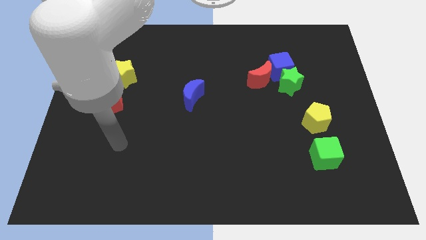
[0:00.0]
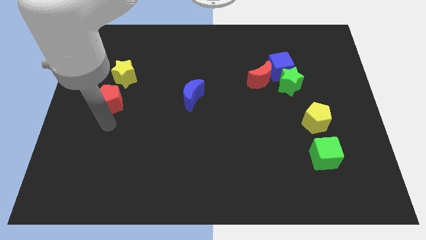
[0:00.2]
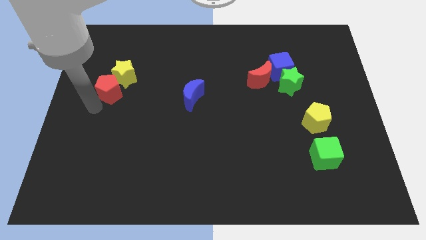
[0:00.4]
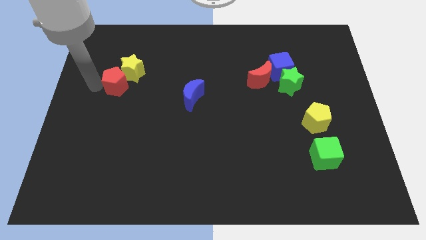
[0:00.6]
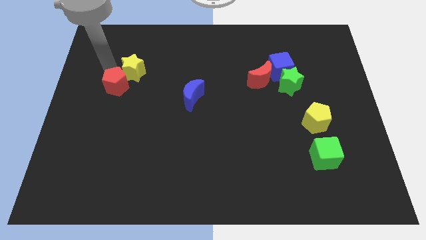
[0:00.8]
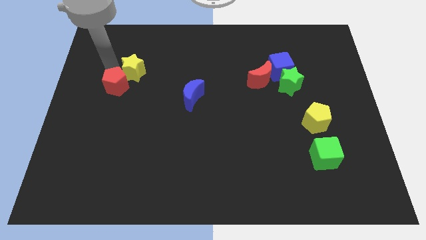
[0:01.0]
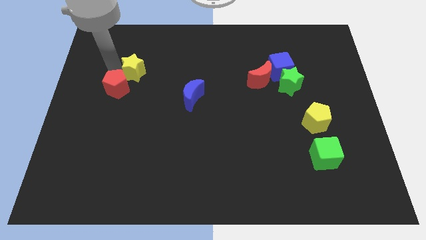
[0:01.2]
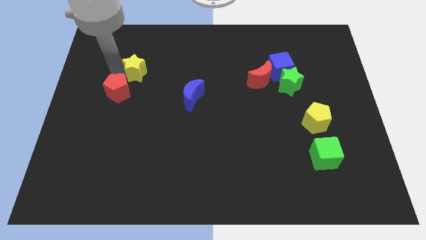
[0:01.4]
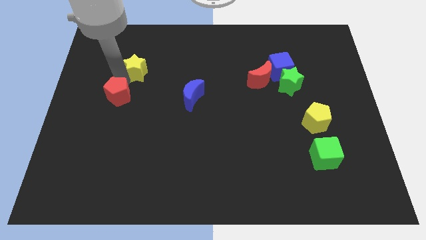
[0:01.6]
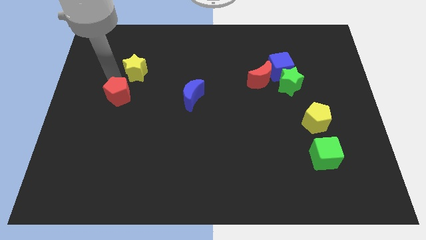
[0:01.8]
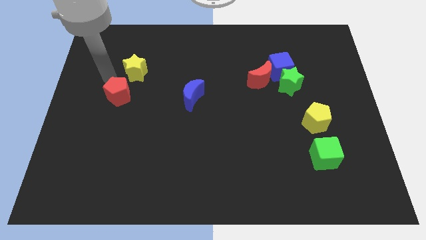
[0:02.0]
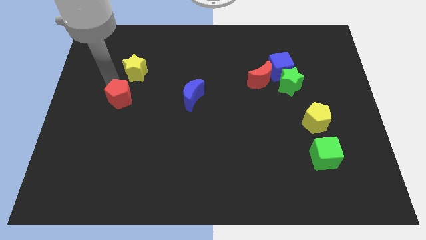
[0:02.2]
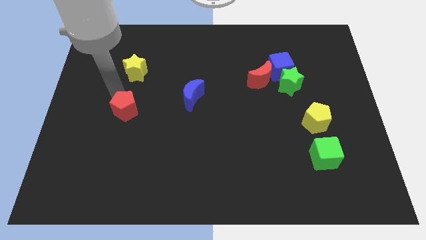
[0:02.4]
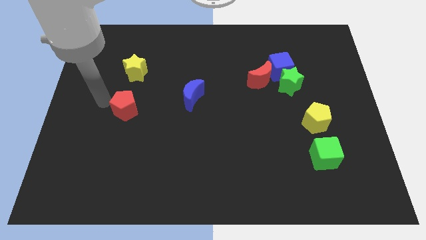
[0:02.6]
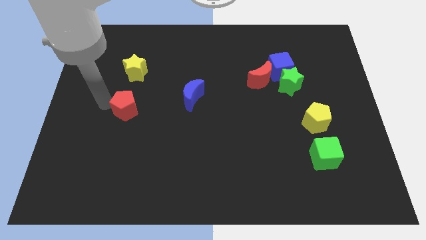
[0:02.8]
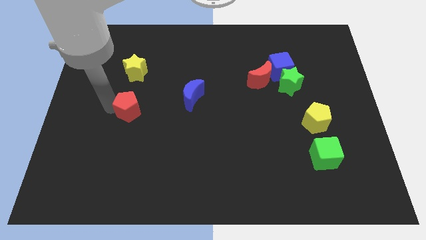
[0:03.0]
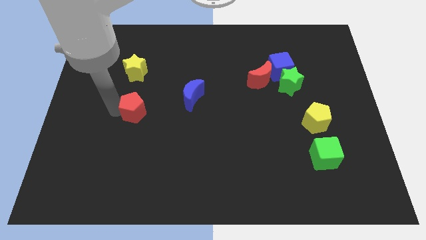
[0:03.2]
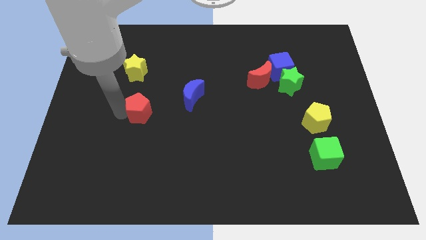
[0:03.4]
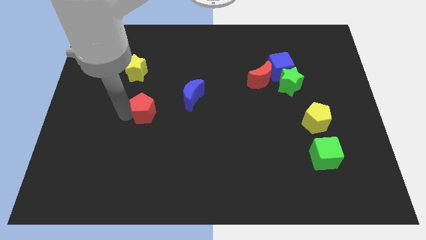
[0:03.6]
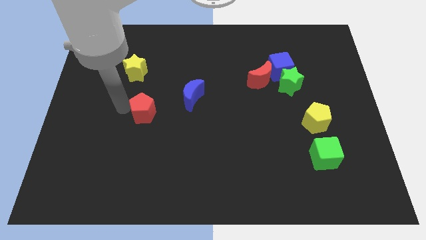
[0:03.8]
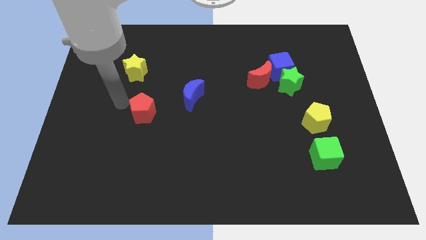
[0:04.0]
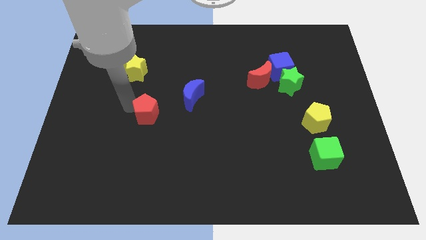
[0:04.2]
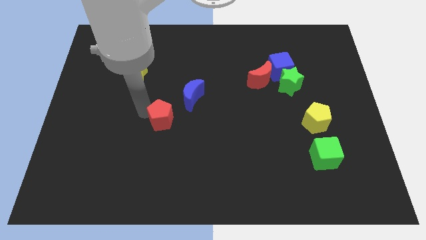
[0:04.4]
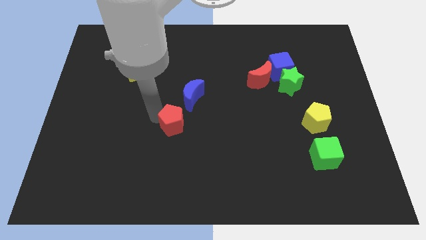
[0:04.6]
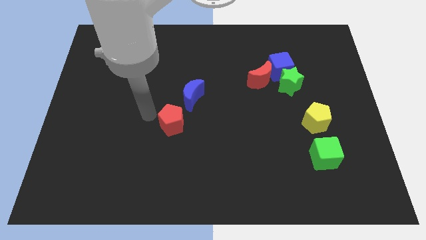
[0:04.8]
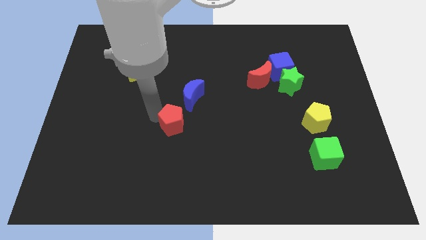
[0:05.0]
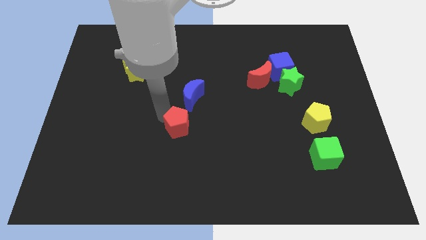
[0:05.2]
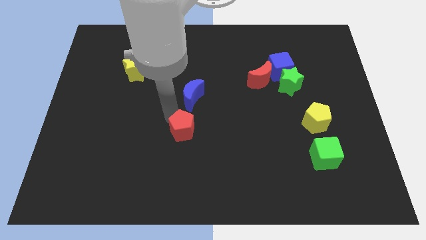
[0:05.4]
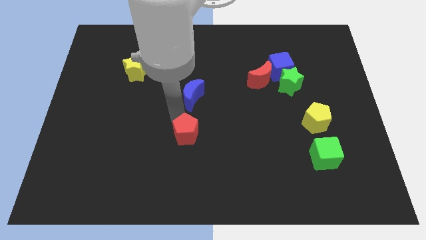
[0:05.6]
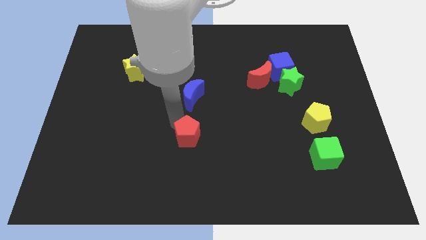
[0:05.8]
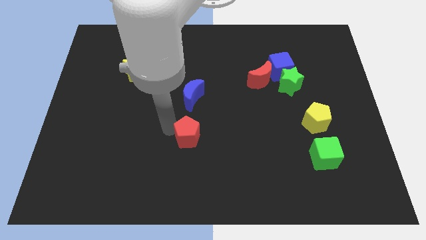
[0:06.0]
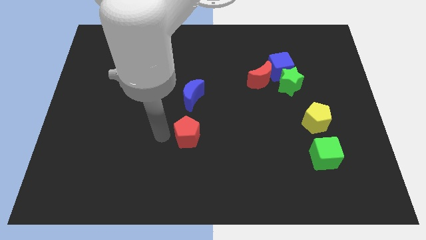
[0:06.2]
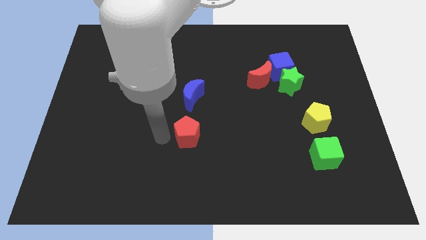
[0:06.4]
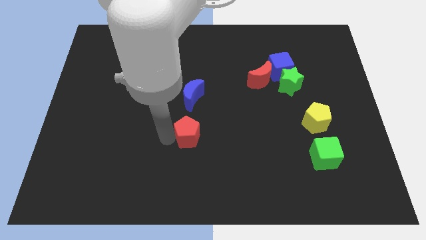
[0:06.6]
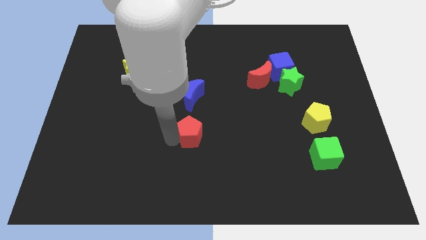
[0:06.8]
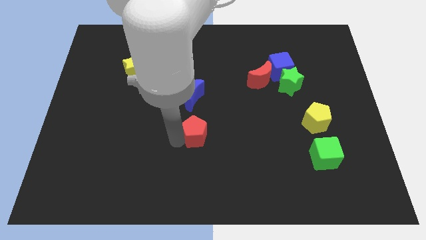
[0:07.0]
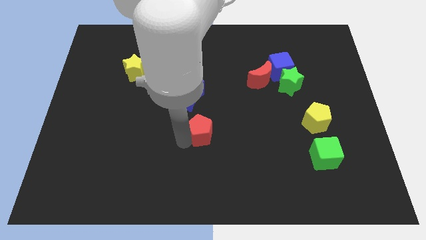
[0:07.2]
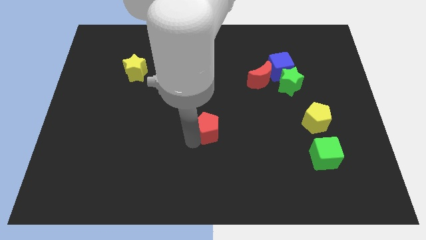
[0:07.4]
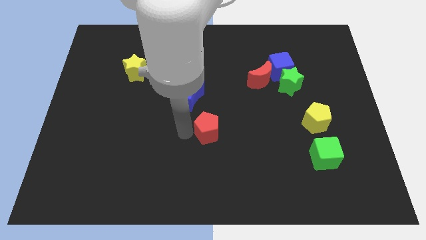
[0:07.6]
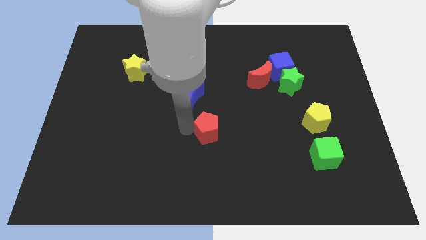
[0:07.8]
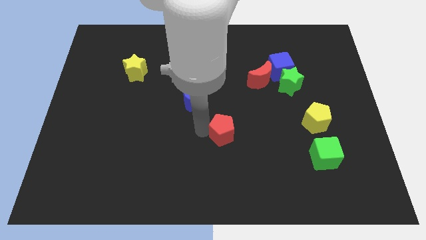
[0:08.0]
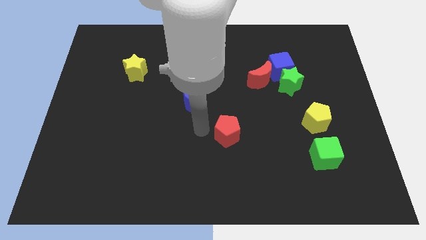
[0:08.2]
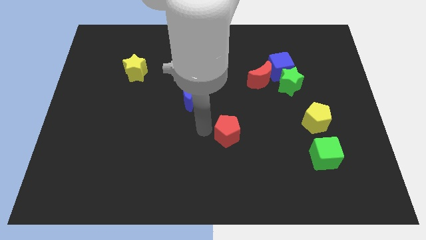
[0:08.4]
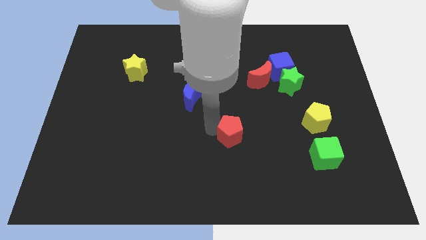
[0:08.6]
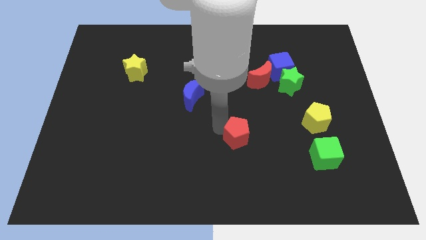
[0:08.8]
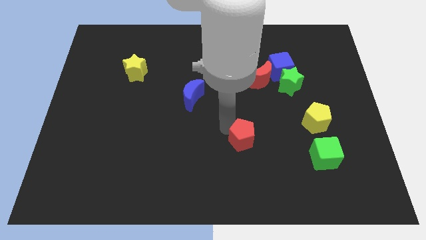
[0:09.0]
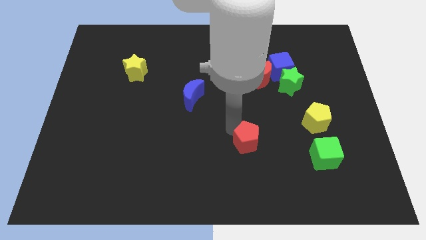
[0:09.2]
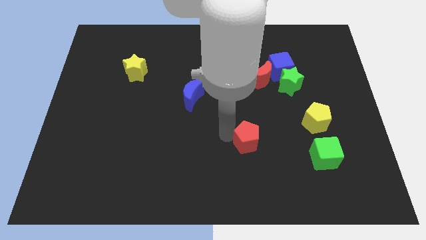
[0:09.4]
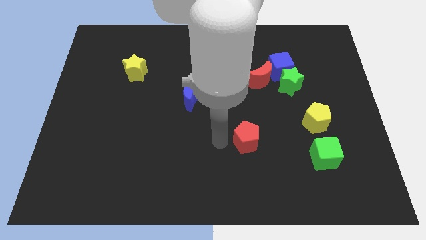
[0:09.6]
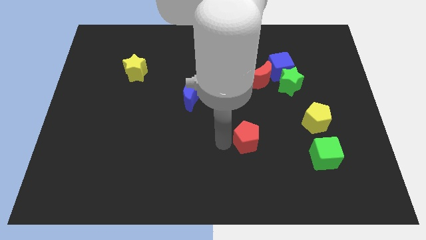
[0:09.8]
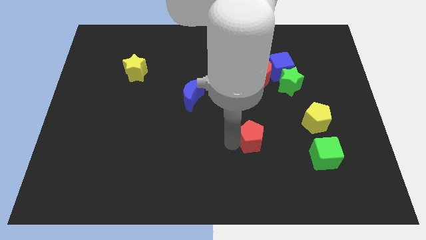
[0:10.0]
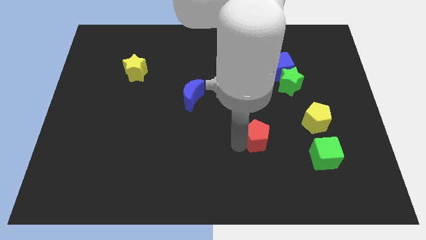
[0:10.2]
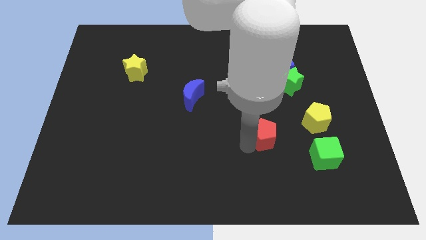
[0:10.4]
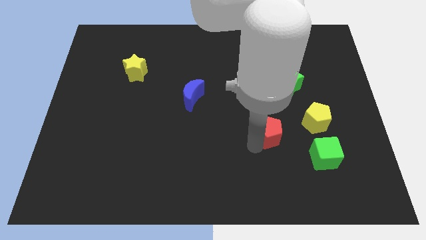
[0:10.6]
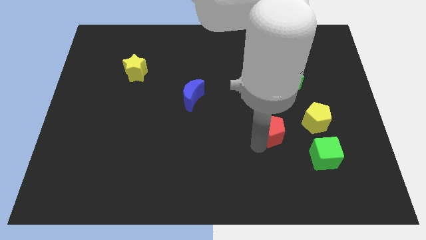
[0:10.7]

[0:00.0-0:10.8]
slide the red pentagon to the top left side of the green cube

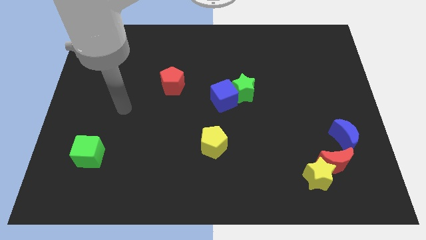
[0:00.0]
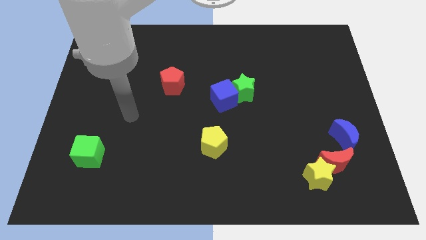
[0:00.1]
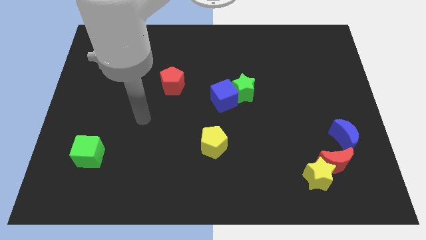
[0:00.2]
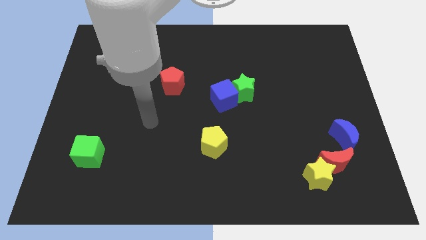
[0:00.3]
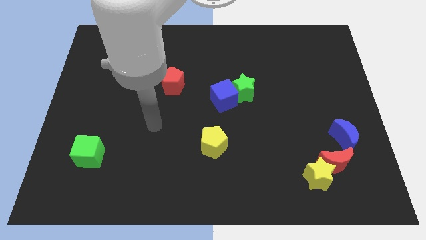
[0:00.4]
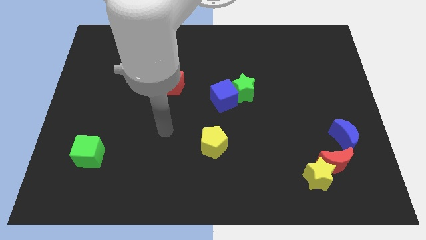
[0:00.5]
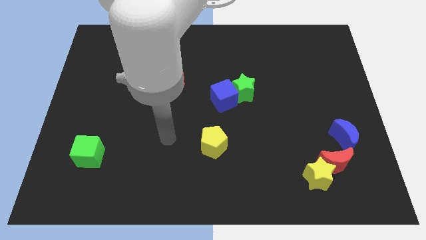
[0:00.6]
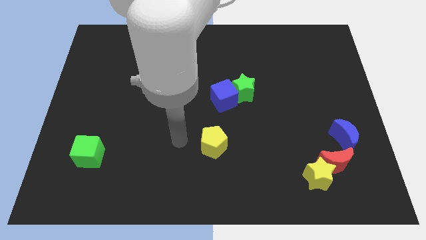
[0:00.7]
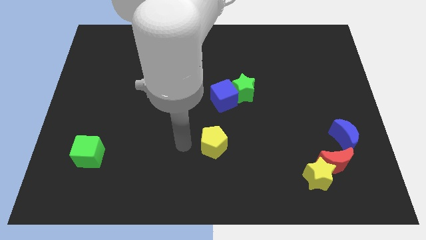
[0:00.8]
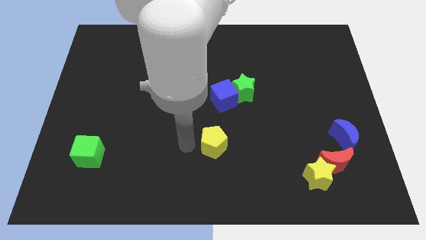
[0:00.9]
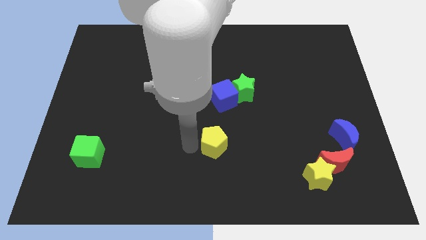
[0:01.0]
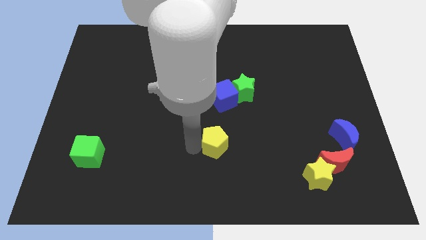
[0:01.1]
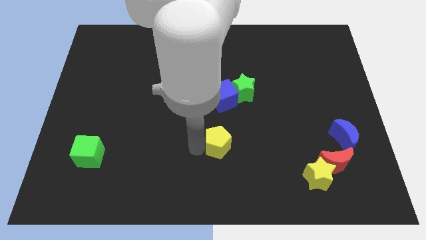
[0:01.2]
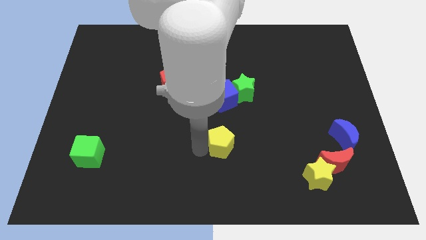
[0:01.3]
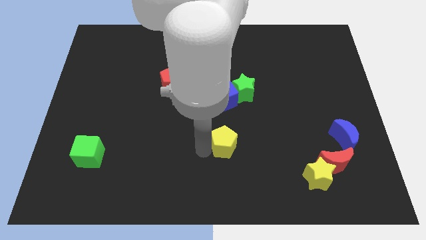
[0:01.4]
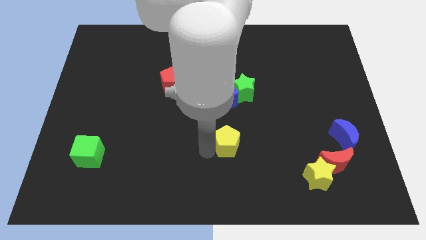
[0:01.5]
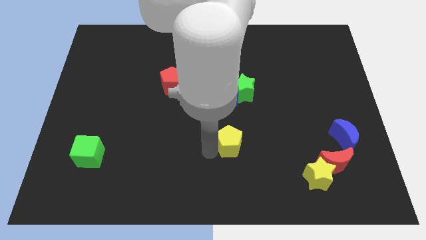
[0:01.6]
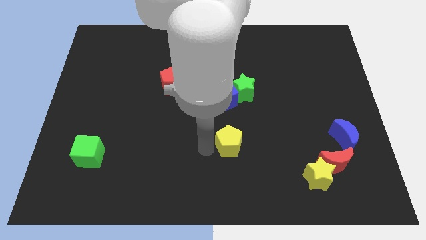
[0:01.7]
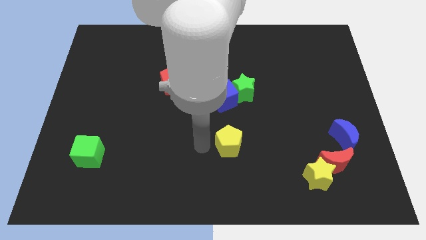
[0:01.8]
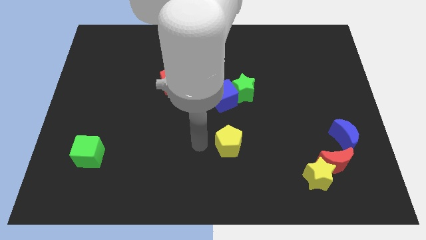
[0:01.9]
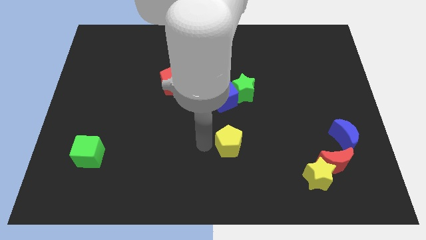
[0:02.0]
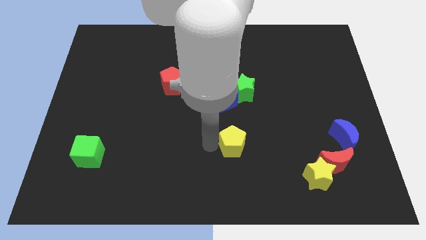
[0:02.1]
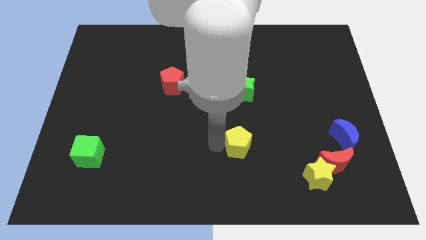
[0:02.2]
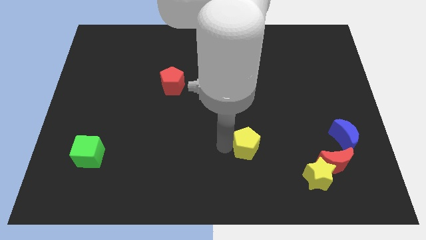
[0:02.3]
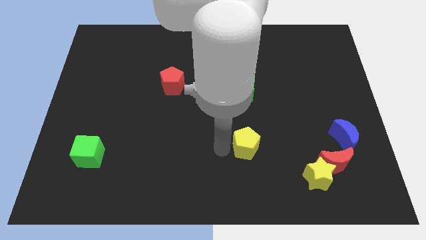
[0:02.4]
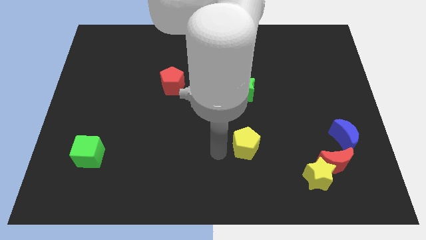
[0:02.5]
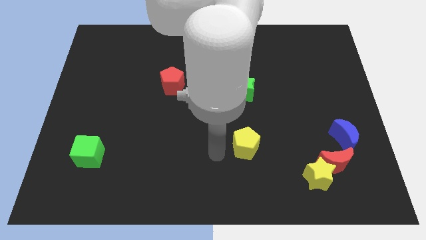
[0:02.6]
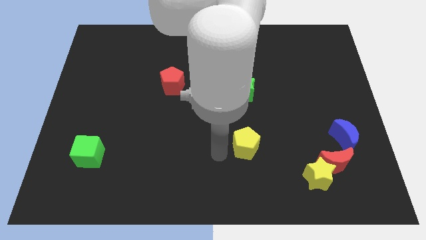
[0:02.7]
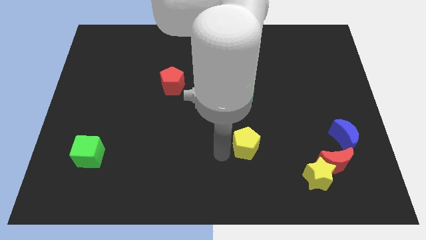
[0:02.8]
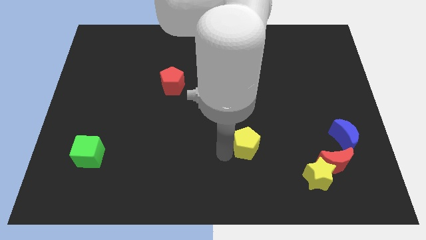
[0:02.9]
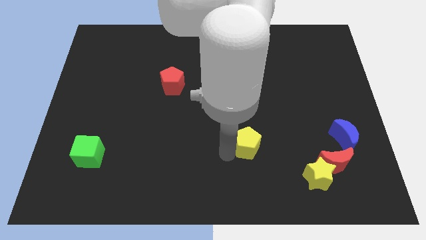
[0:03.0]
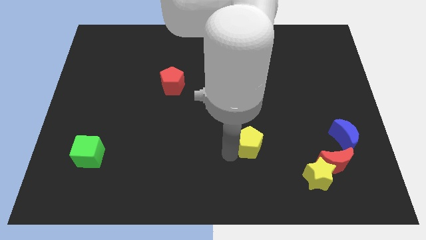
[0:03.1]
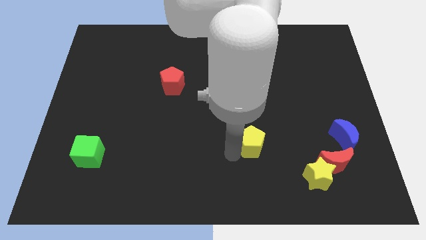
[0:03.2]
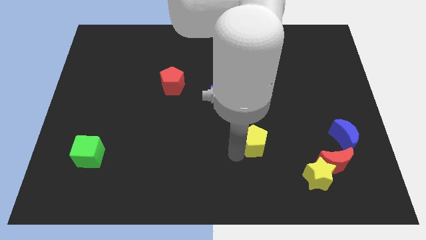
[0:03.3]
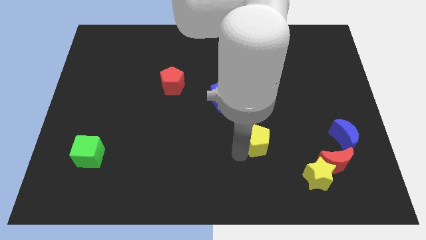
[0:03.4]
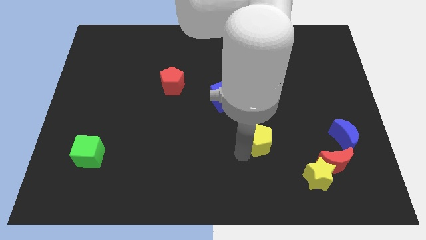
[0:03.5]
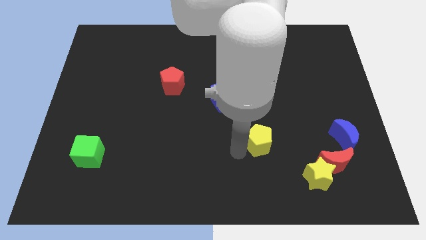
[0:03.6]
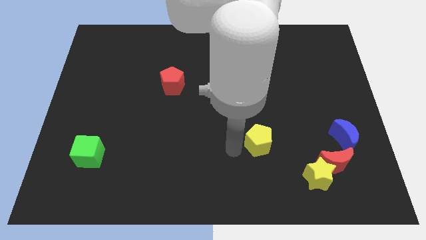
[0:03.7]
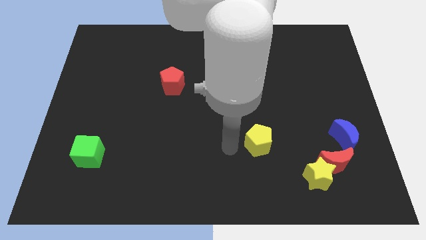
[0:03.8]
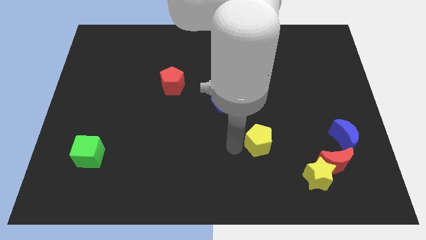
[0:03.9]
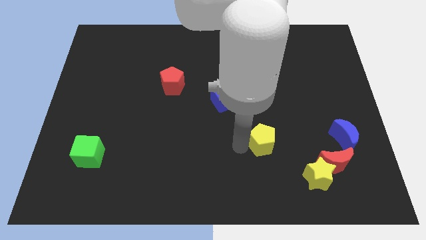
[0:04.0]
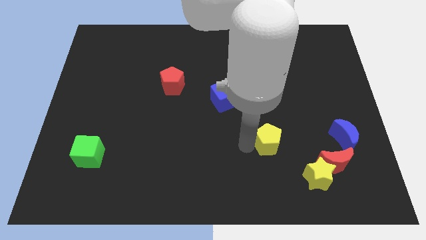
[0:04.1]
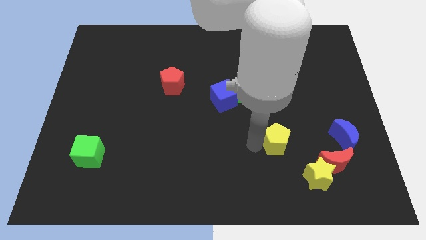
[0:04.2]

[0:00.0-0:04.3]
put the yellow pentagon just left of the blue moon
